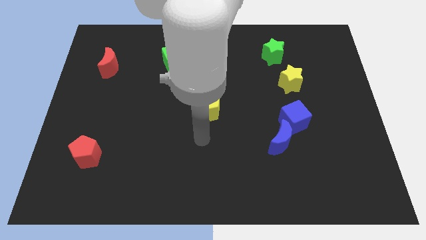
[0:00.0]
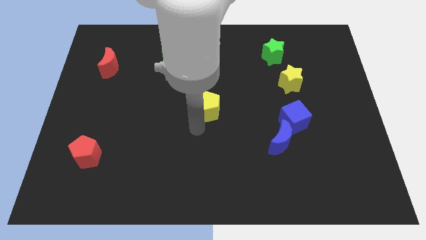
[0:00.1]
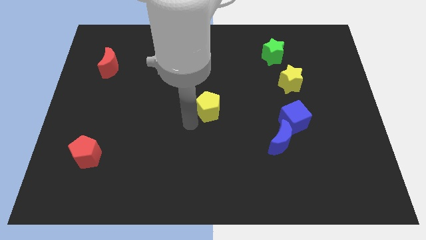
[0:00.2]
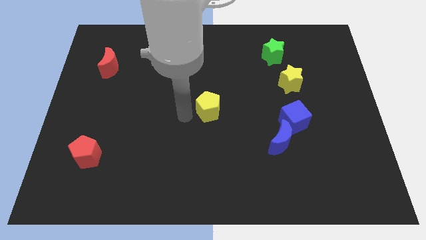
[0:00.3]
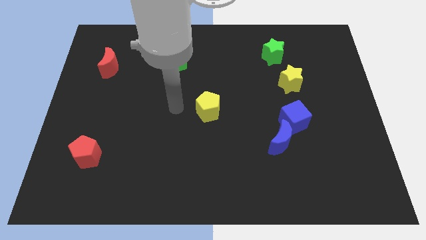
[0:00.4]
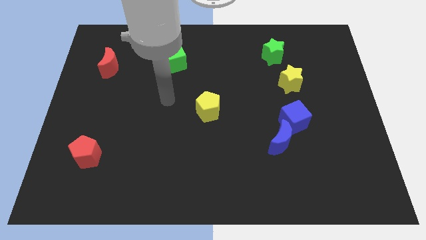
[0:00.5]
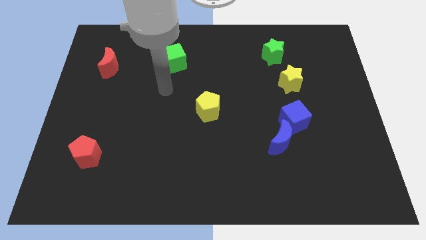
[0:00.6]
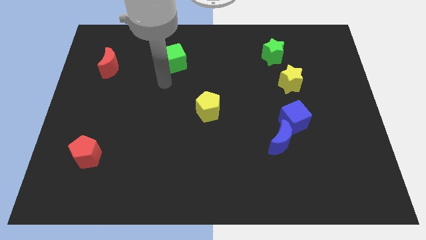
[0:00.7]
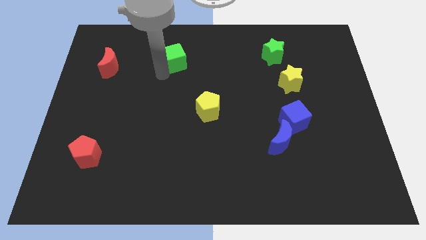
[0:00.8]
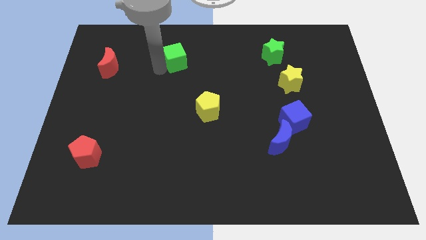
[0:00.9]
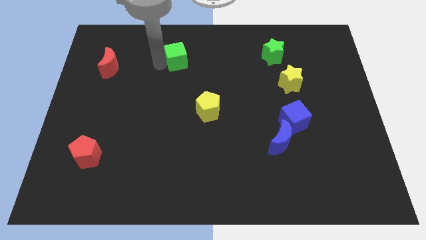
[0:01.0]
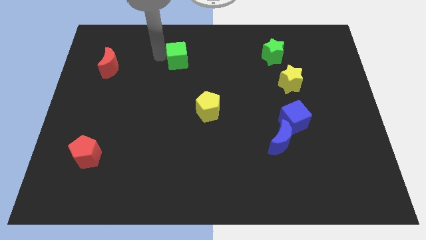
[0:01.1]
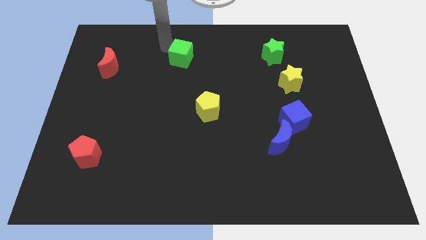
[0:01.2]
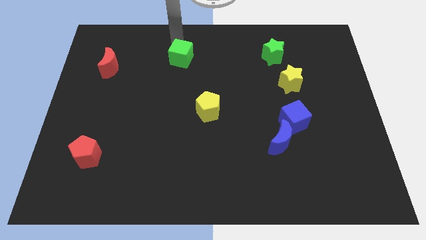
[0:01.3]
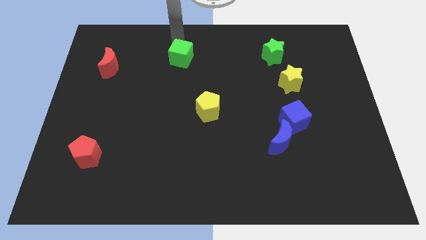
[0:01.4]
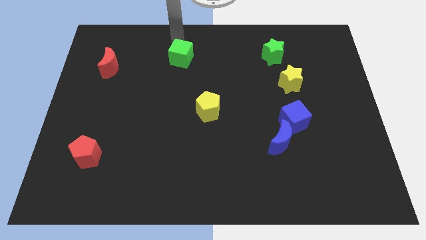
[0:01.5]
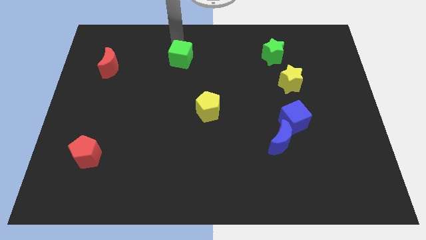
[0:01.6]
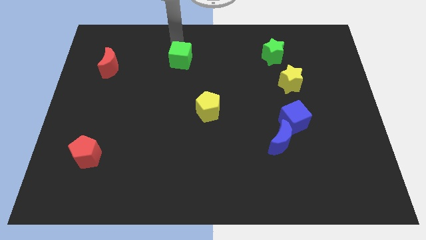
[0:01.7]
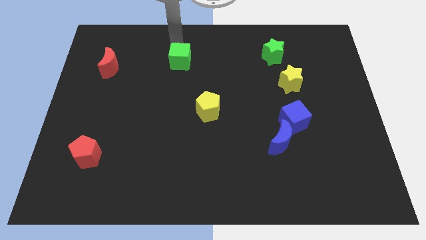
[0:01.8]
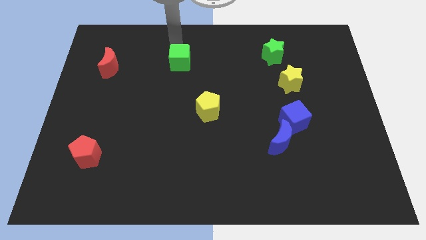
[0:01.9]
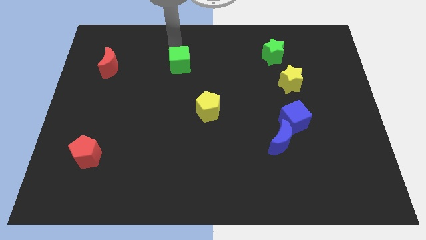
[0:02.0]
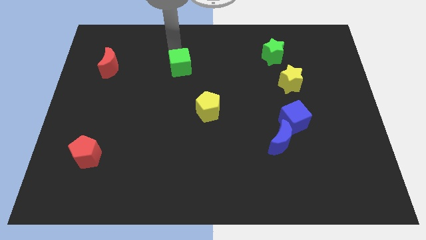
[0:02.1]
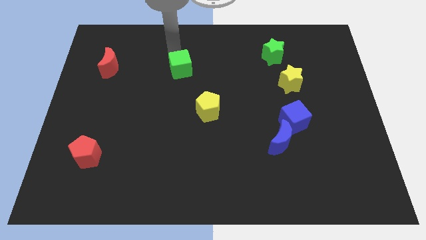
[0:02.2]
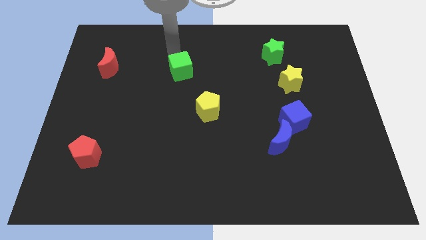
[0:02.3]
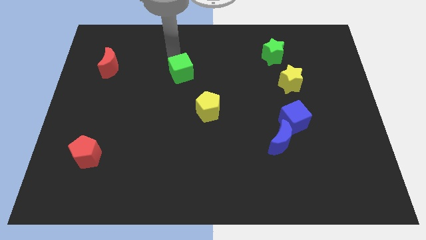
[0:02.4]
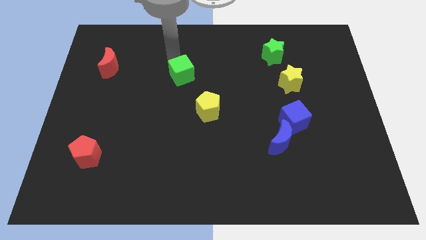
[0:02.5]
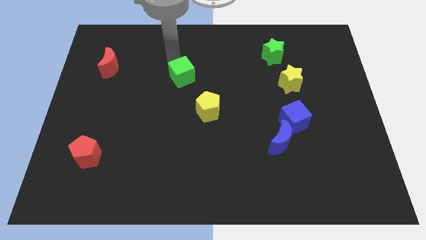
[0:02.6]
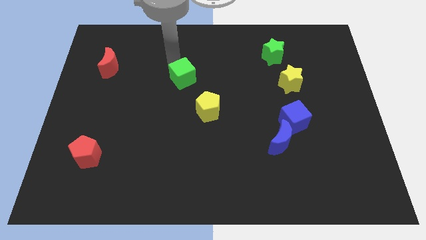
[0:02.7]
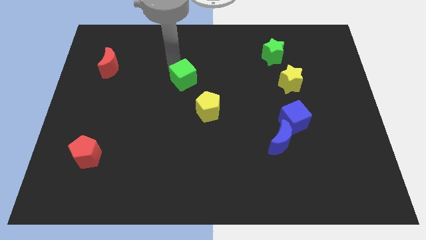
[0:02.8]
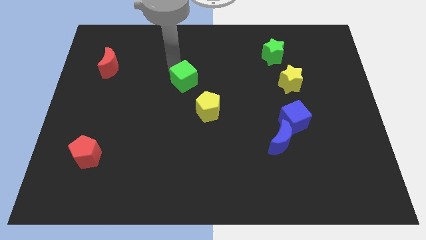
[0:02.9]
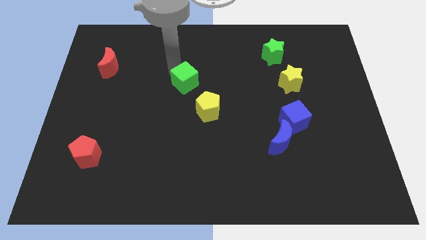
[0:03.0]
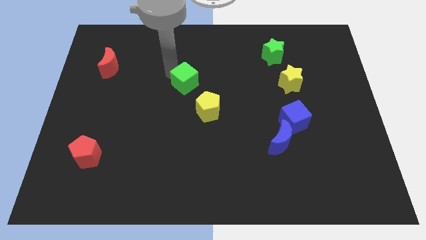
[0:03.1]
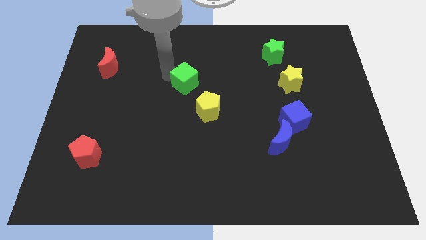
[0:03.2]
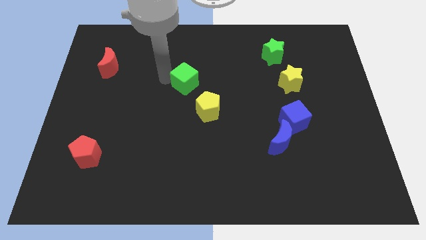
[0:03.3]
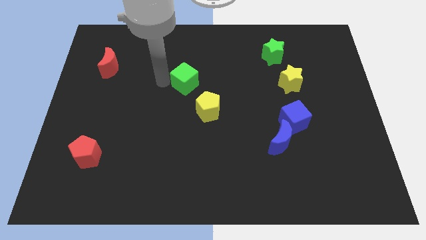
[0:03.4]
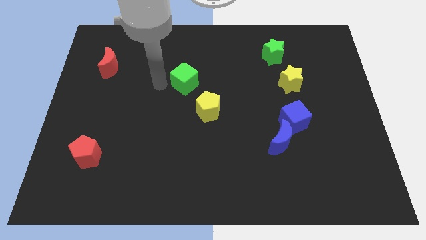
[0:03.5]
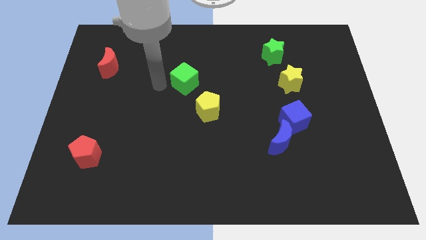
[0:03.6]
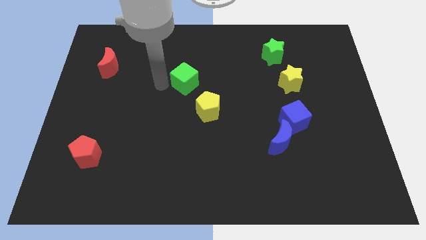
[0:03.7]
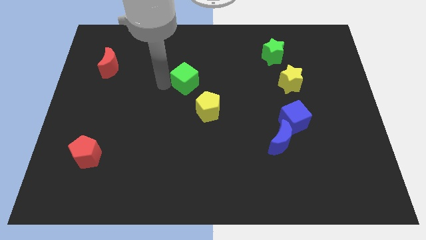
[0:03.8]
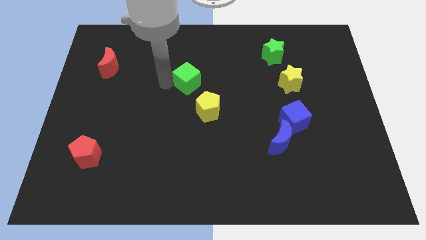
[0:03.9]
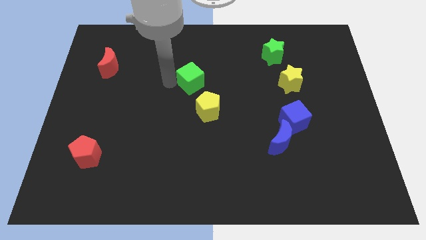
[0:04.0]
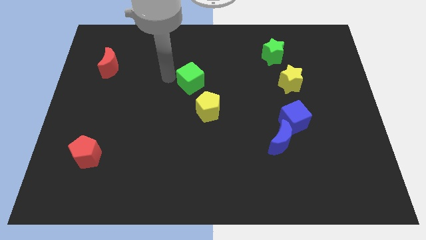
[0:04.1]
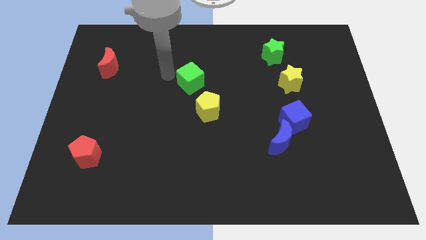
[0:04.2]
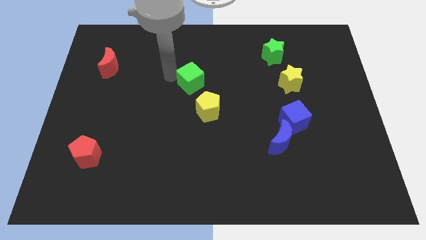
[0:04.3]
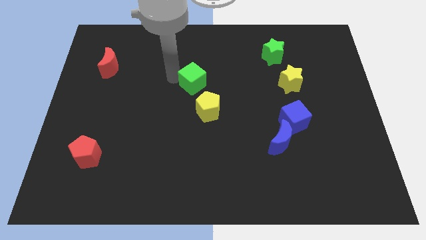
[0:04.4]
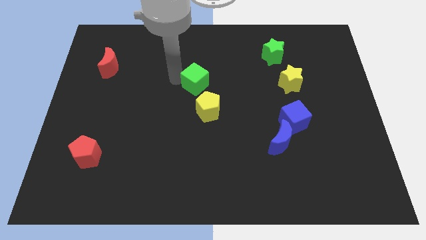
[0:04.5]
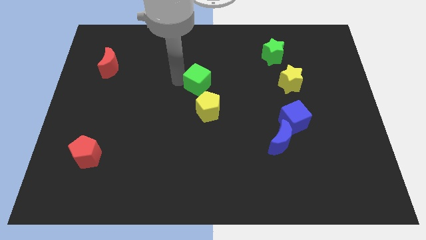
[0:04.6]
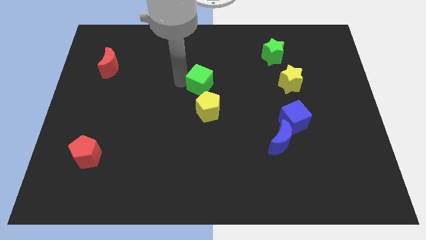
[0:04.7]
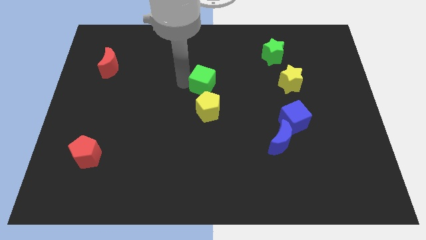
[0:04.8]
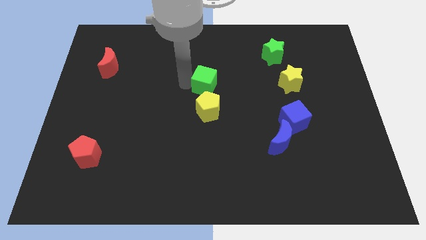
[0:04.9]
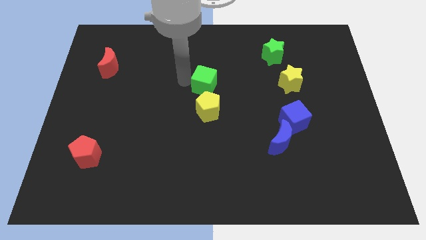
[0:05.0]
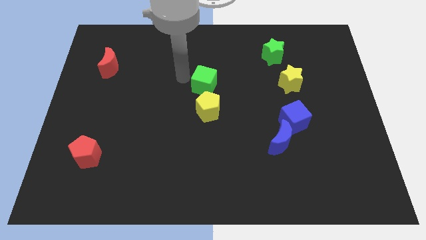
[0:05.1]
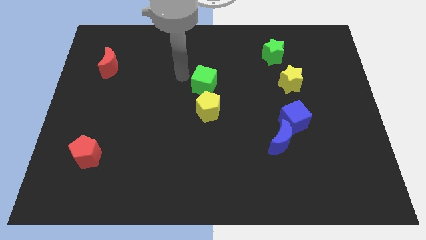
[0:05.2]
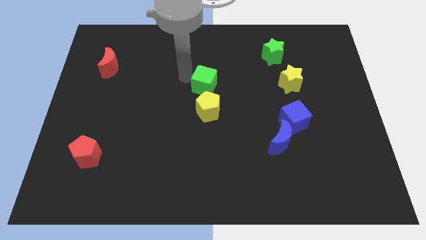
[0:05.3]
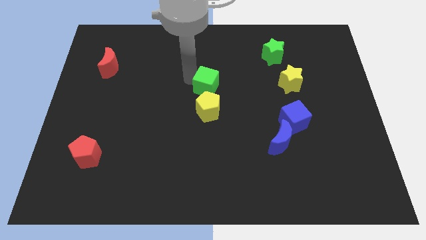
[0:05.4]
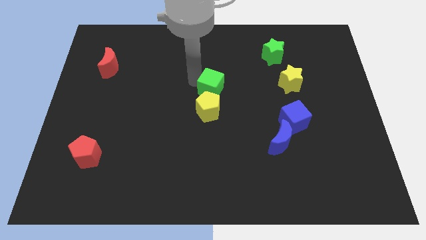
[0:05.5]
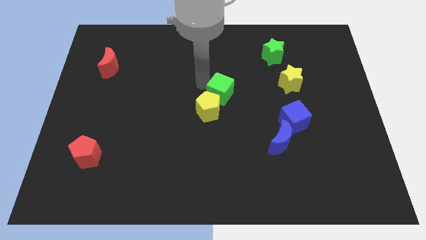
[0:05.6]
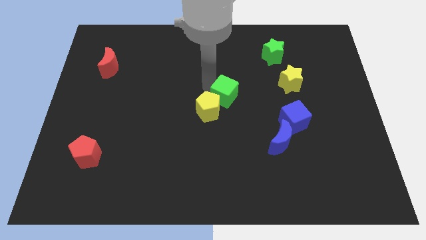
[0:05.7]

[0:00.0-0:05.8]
move the green cube to the right side of the yellow pentagon

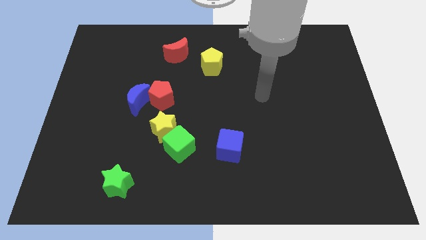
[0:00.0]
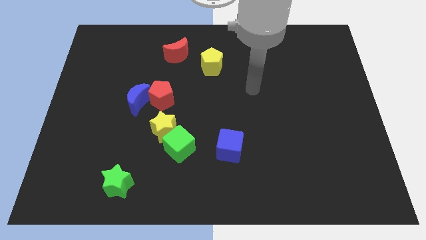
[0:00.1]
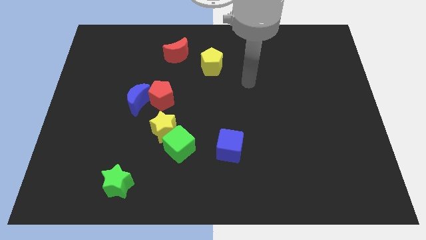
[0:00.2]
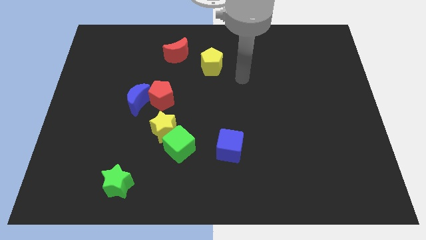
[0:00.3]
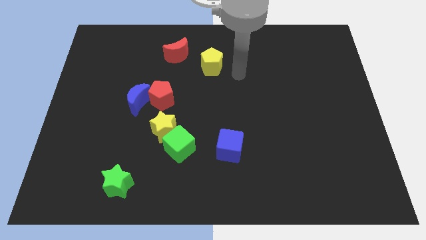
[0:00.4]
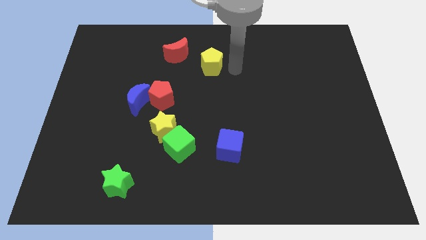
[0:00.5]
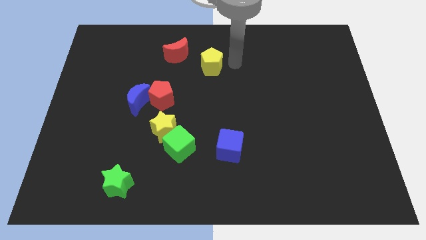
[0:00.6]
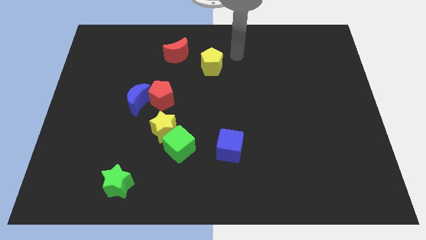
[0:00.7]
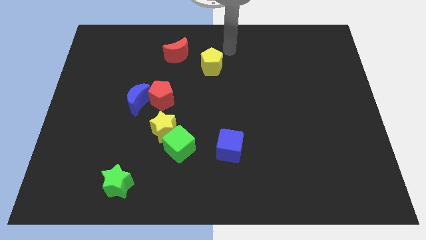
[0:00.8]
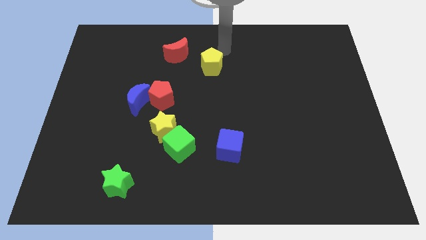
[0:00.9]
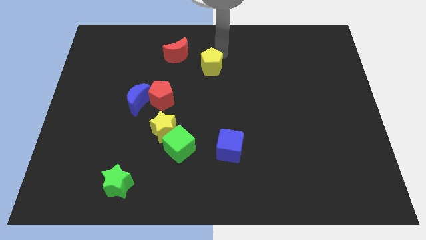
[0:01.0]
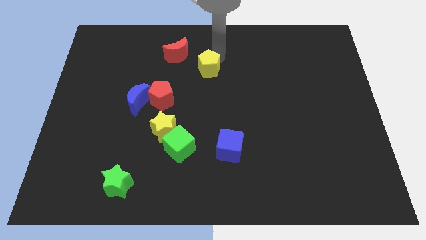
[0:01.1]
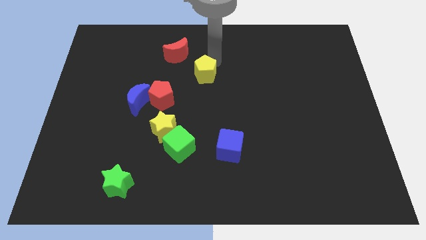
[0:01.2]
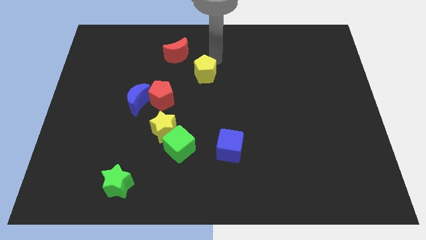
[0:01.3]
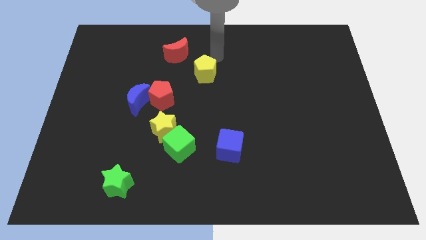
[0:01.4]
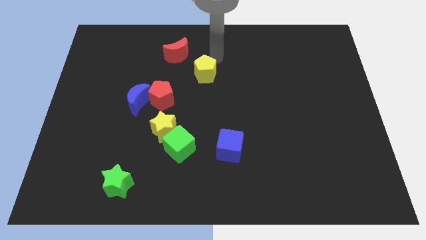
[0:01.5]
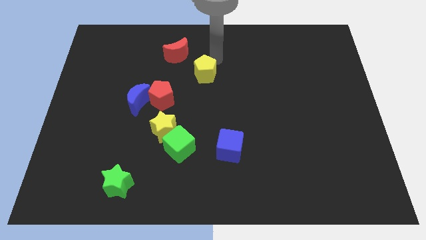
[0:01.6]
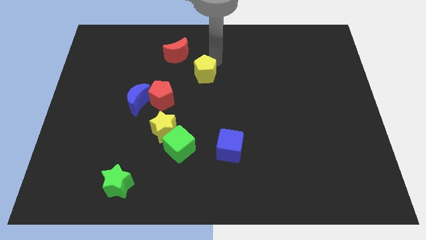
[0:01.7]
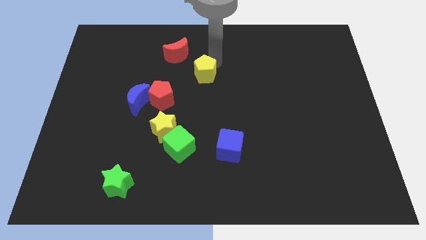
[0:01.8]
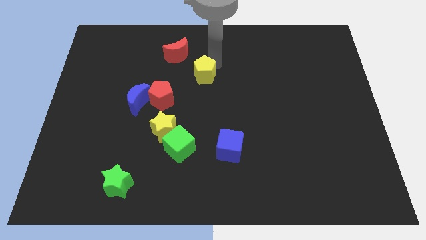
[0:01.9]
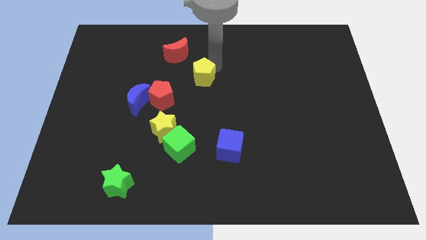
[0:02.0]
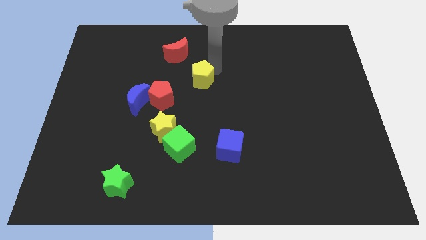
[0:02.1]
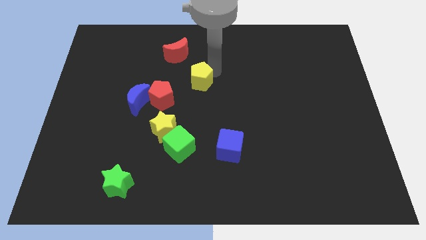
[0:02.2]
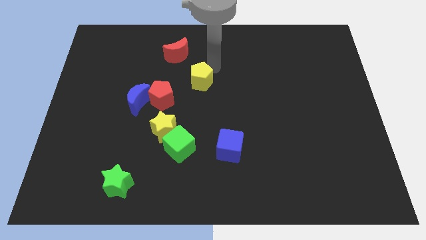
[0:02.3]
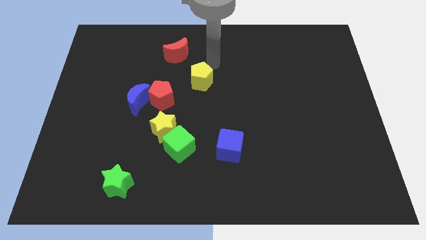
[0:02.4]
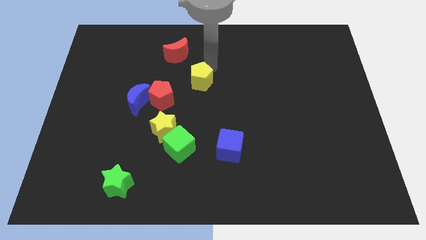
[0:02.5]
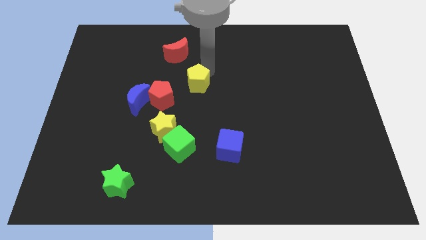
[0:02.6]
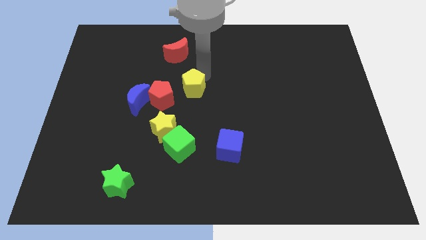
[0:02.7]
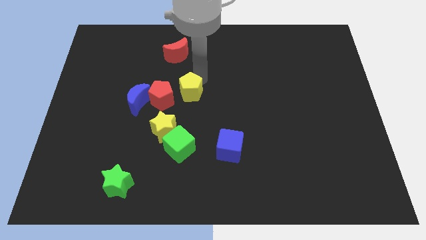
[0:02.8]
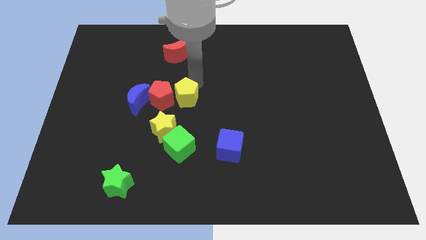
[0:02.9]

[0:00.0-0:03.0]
put the yellow pentagon to the top right of the yellow star
